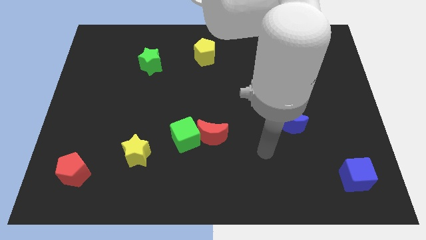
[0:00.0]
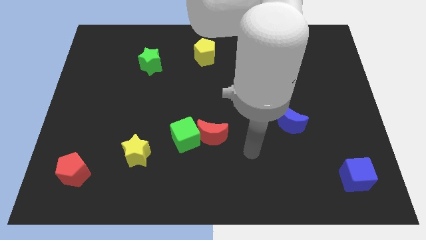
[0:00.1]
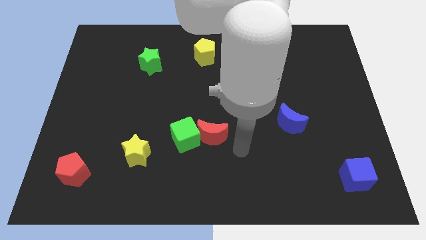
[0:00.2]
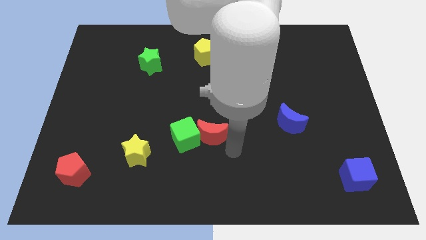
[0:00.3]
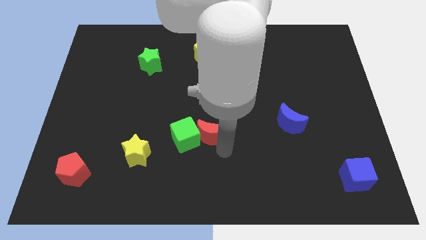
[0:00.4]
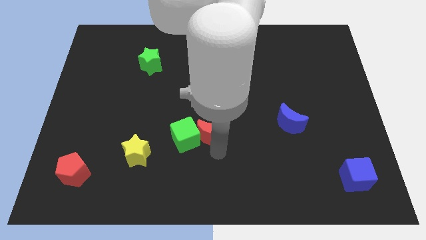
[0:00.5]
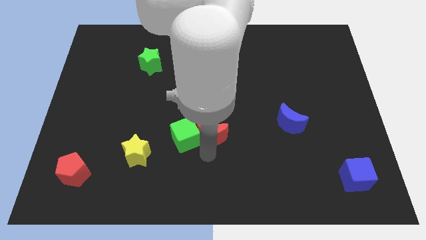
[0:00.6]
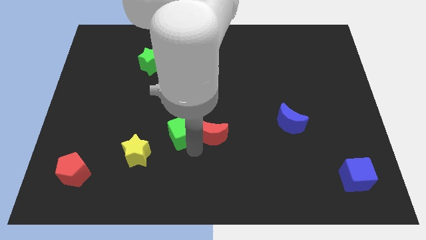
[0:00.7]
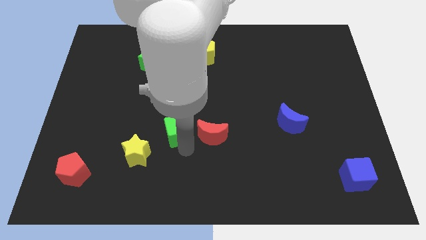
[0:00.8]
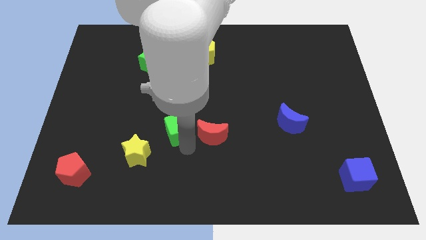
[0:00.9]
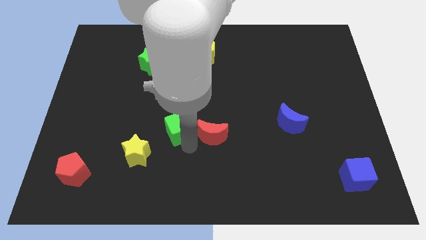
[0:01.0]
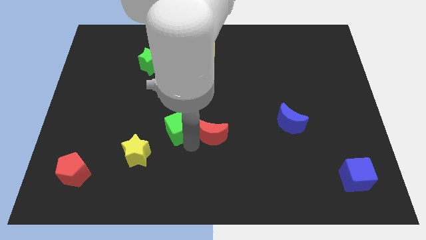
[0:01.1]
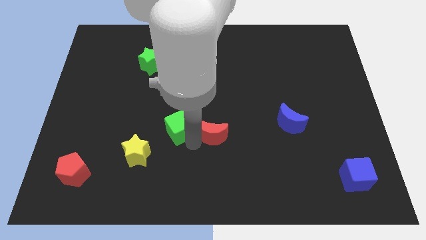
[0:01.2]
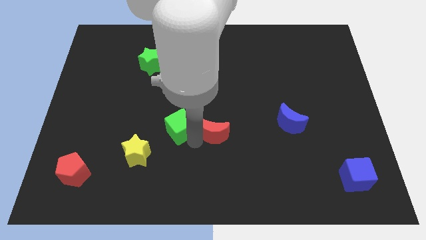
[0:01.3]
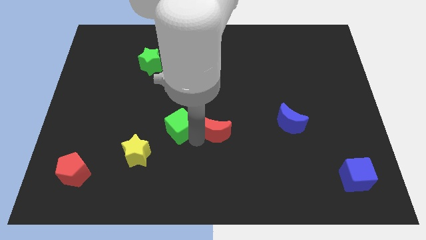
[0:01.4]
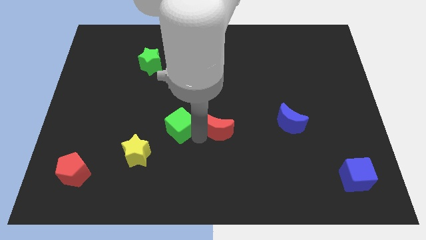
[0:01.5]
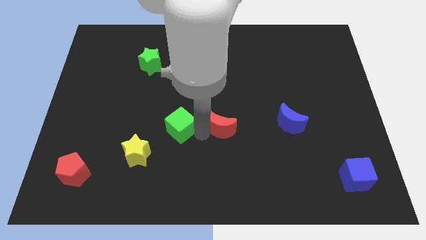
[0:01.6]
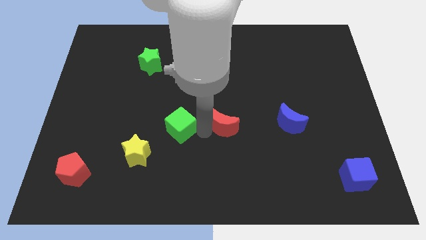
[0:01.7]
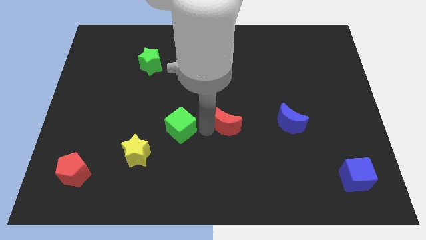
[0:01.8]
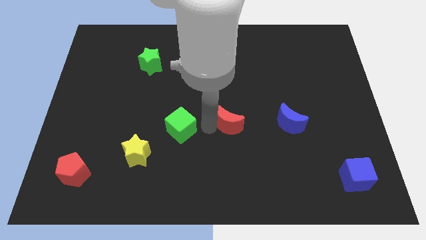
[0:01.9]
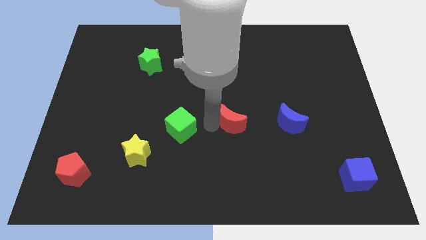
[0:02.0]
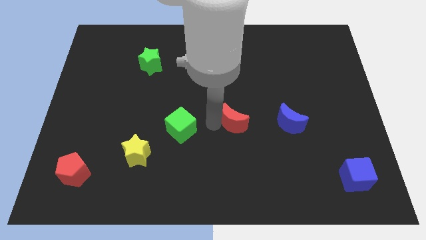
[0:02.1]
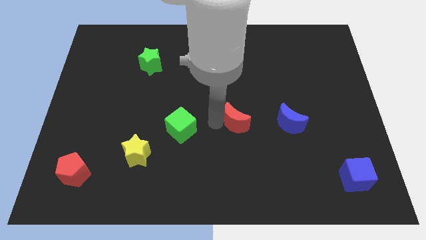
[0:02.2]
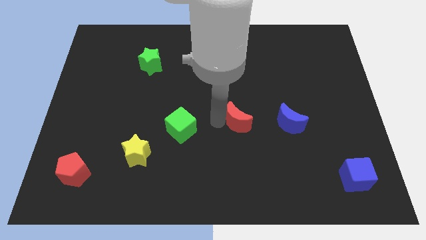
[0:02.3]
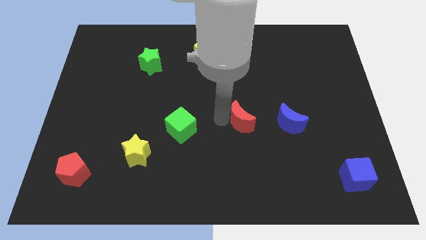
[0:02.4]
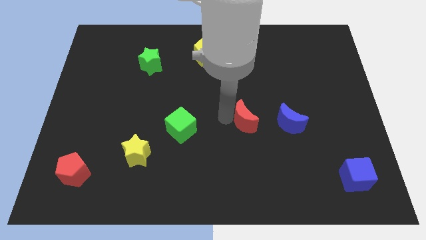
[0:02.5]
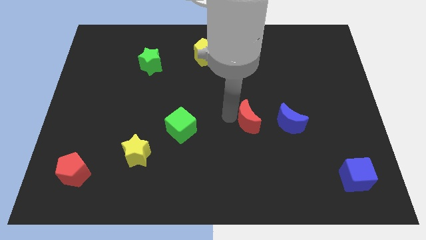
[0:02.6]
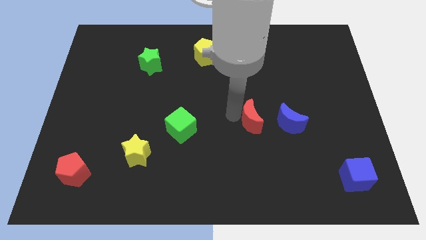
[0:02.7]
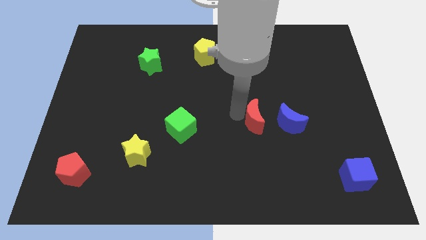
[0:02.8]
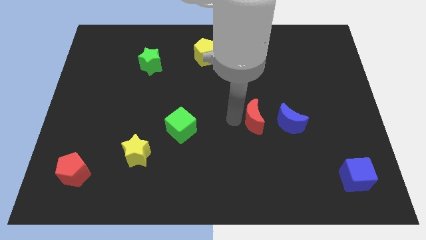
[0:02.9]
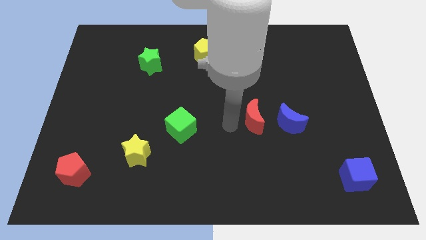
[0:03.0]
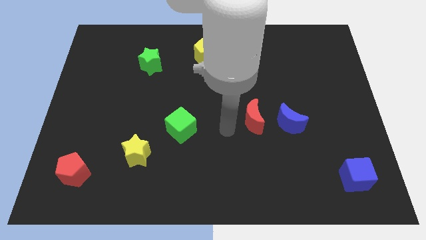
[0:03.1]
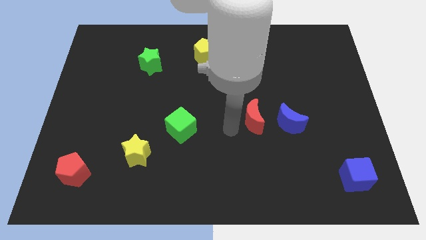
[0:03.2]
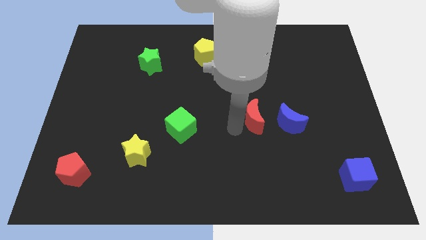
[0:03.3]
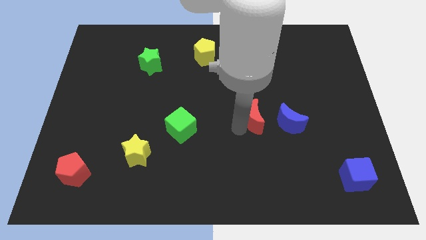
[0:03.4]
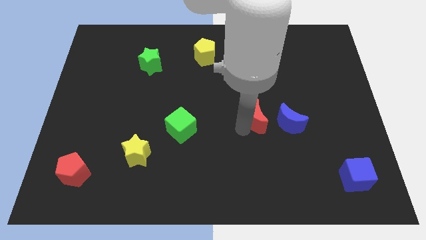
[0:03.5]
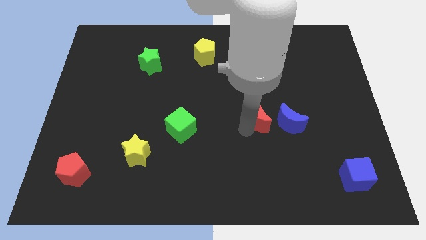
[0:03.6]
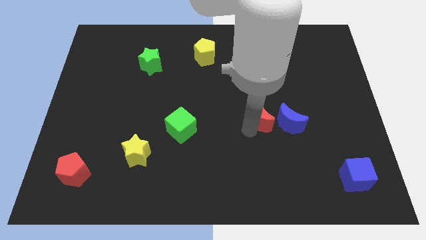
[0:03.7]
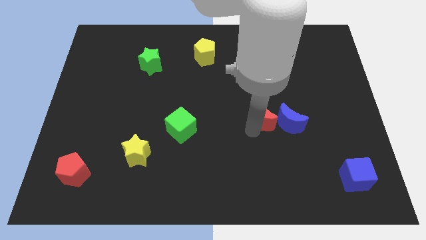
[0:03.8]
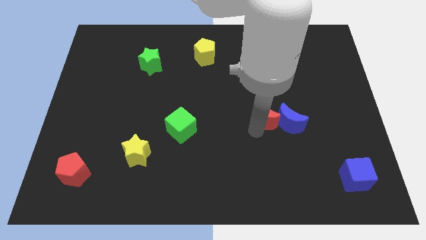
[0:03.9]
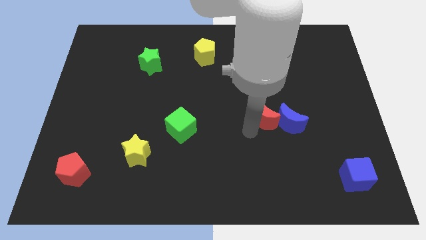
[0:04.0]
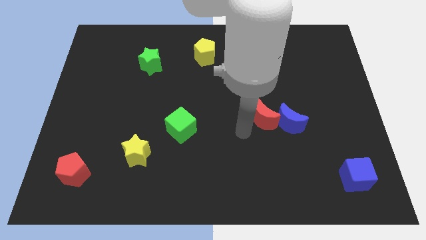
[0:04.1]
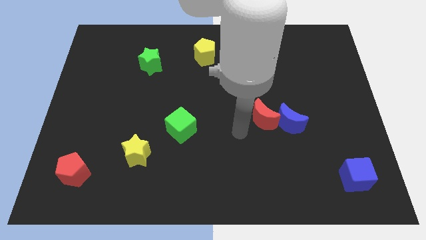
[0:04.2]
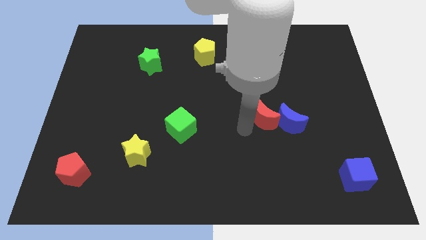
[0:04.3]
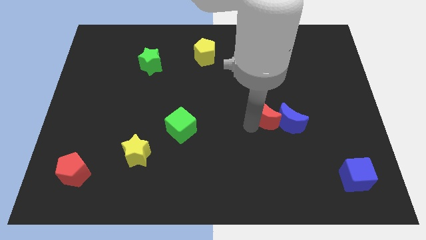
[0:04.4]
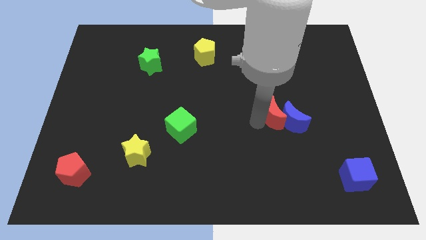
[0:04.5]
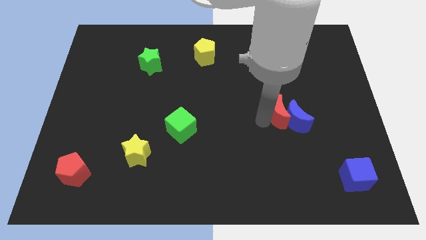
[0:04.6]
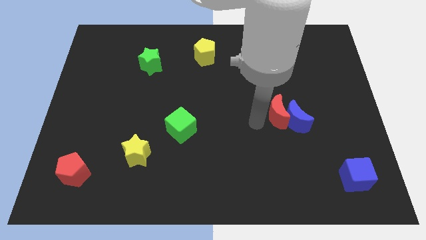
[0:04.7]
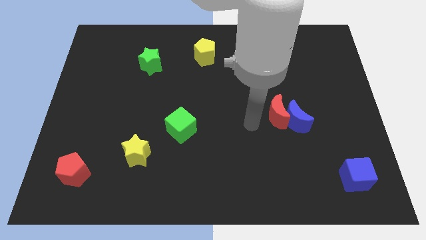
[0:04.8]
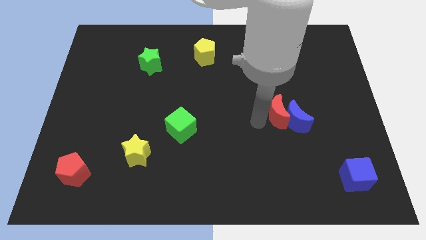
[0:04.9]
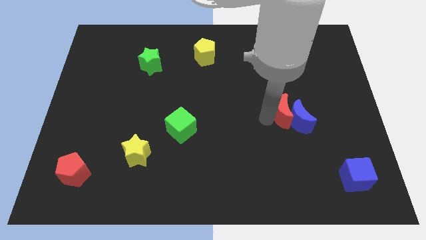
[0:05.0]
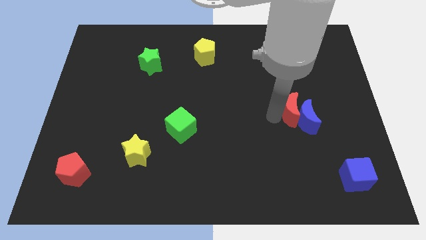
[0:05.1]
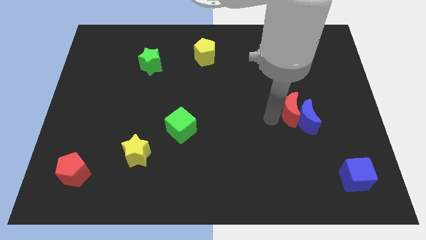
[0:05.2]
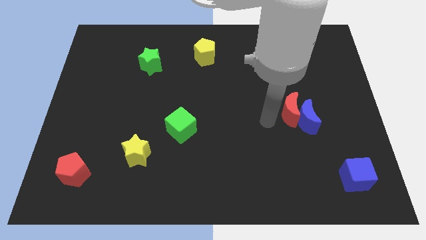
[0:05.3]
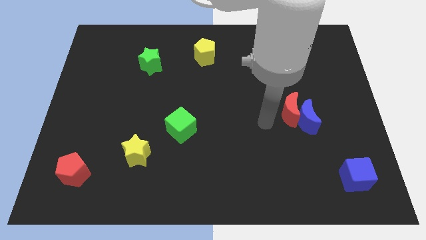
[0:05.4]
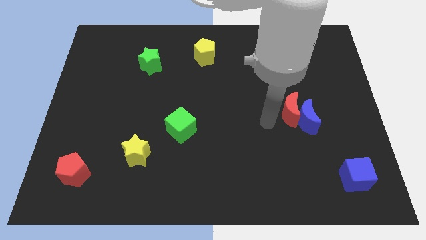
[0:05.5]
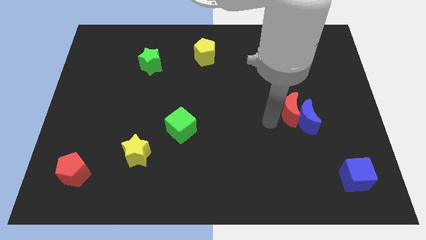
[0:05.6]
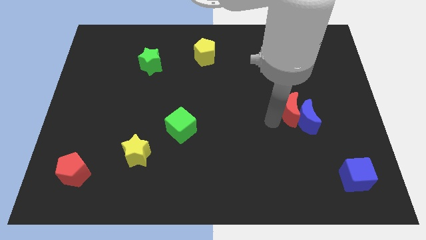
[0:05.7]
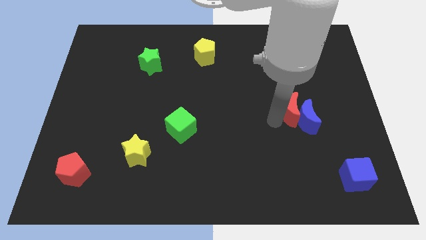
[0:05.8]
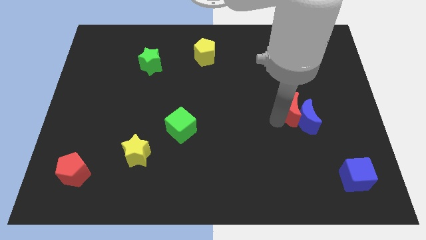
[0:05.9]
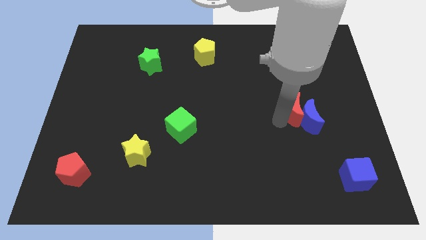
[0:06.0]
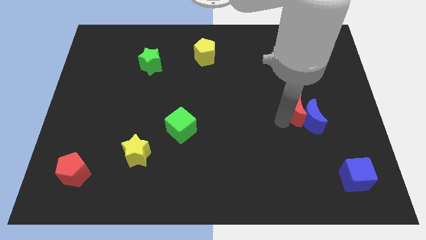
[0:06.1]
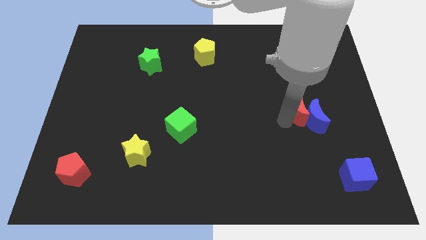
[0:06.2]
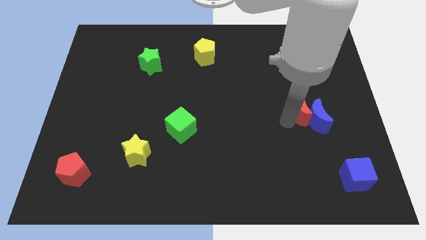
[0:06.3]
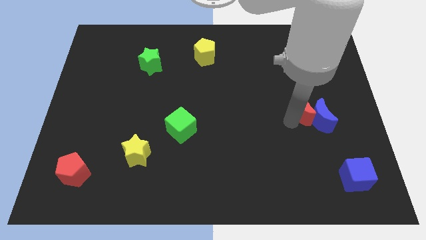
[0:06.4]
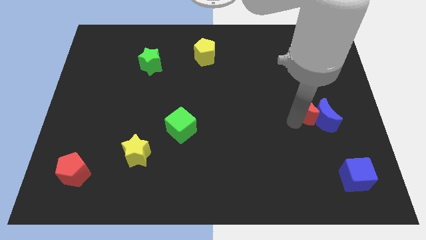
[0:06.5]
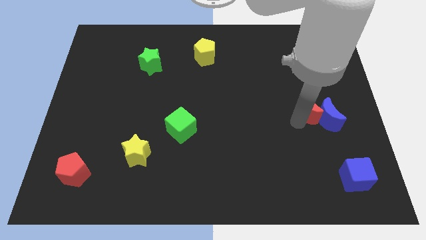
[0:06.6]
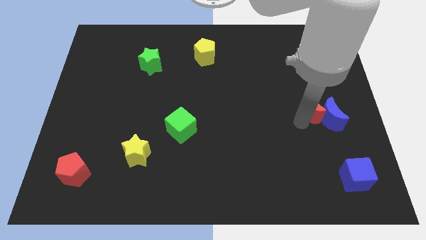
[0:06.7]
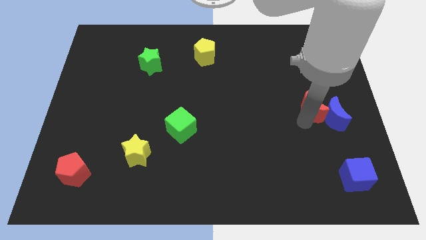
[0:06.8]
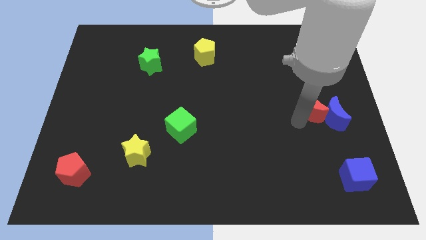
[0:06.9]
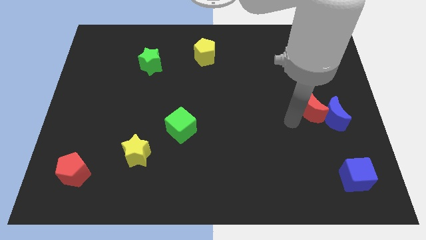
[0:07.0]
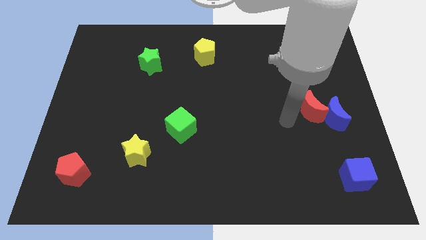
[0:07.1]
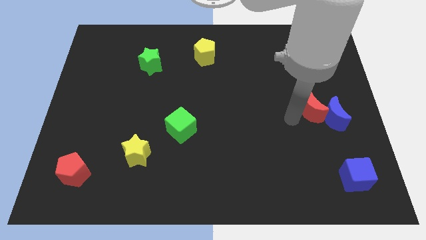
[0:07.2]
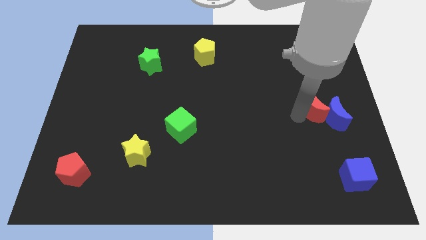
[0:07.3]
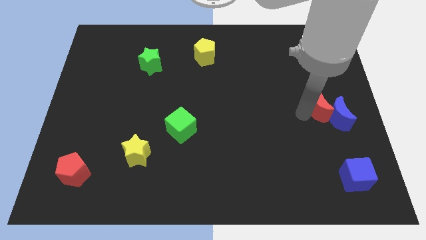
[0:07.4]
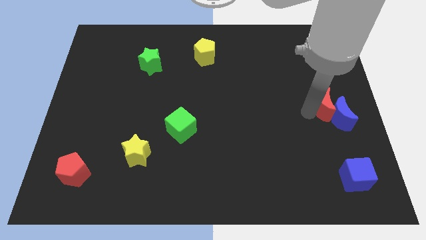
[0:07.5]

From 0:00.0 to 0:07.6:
slide the red moon to the center right

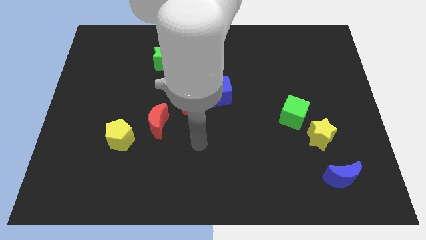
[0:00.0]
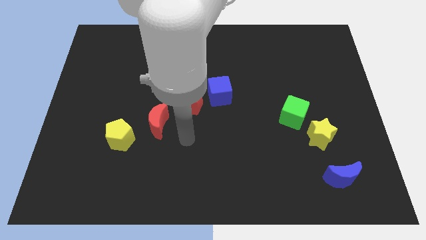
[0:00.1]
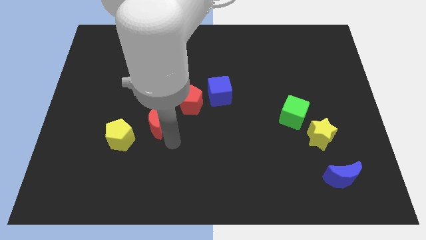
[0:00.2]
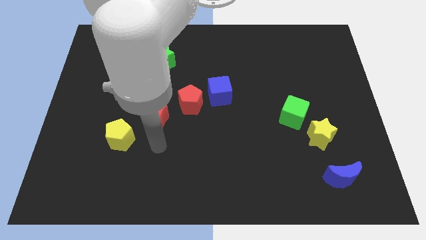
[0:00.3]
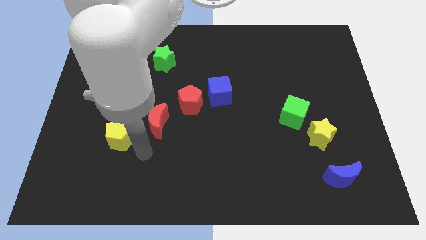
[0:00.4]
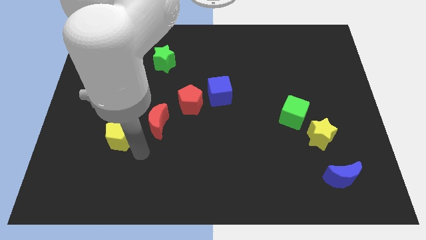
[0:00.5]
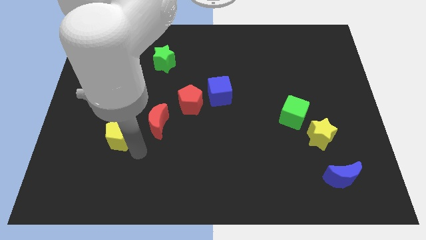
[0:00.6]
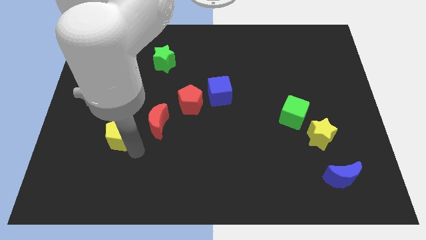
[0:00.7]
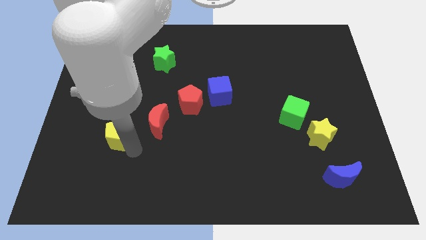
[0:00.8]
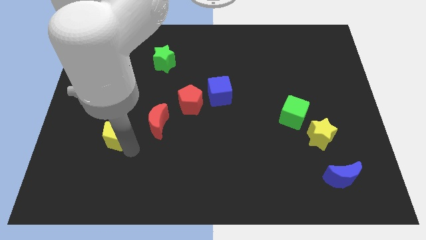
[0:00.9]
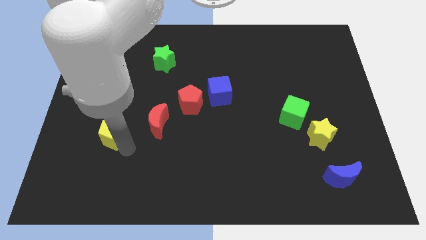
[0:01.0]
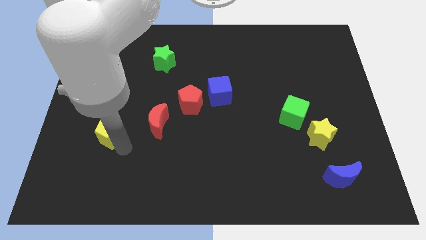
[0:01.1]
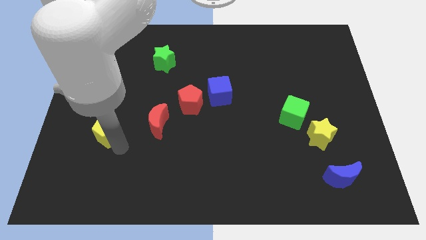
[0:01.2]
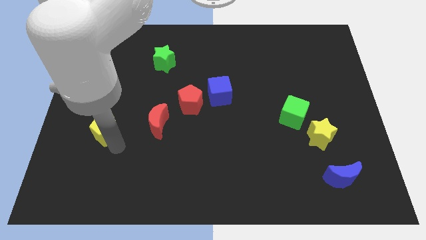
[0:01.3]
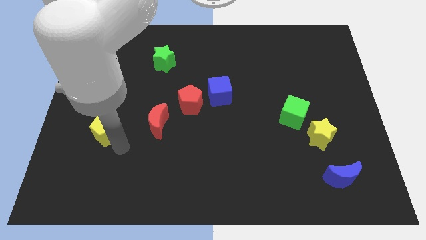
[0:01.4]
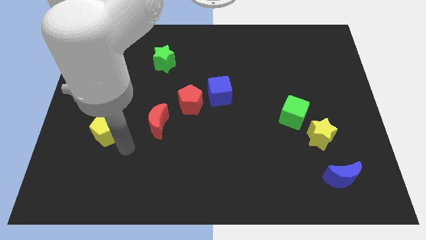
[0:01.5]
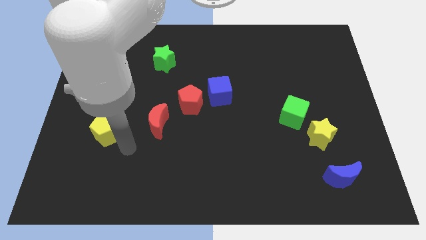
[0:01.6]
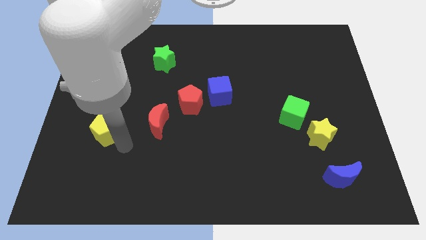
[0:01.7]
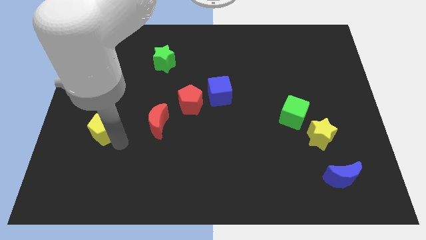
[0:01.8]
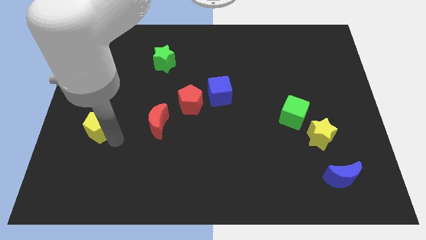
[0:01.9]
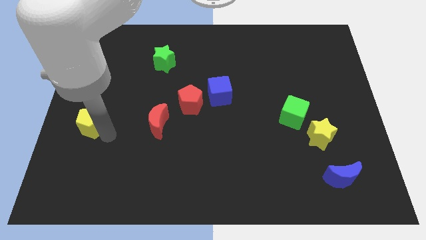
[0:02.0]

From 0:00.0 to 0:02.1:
put the yellow pentagon to the left side of the board
